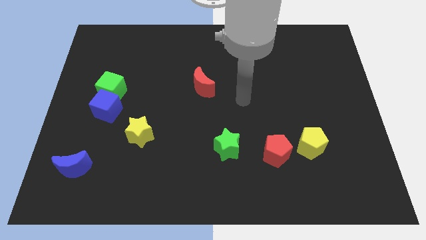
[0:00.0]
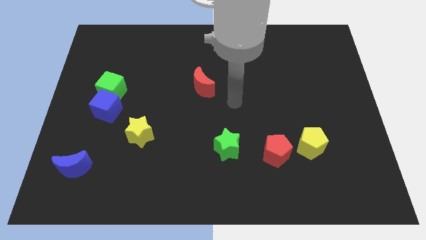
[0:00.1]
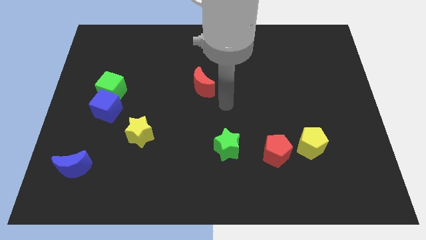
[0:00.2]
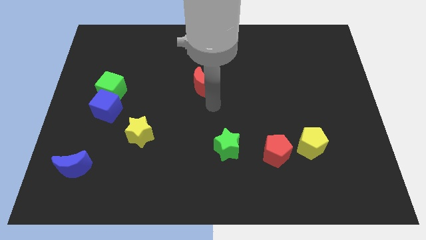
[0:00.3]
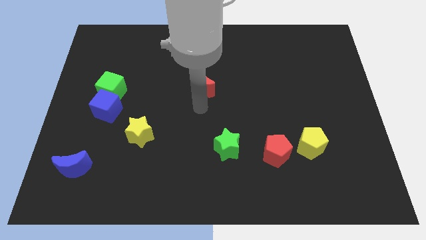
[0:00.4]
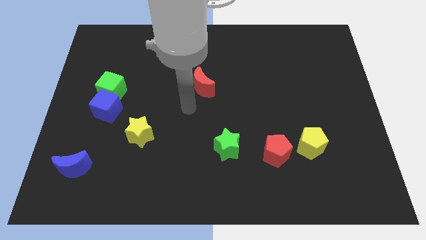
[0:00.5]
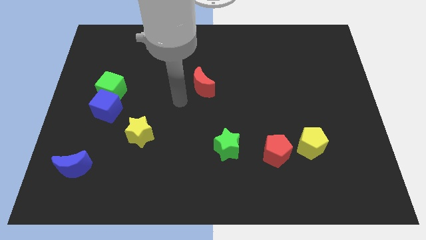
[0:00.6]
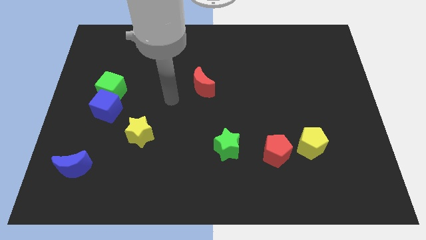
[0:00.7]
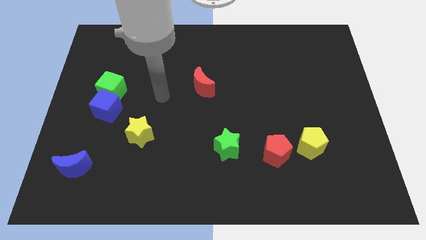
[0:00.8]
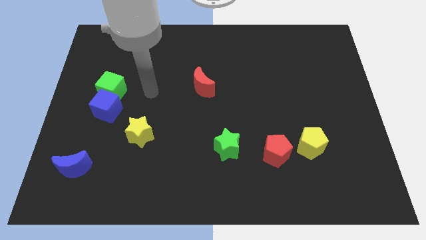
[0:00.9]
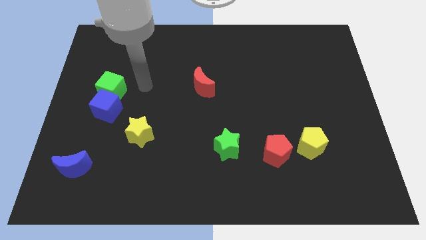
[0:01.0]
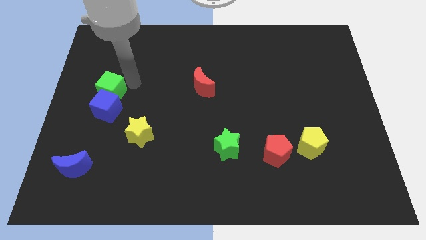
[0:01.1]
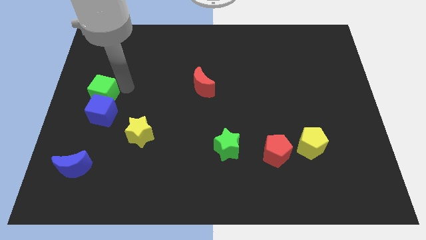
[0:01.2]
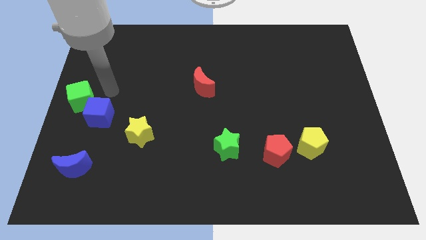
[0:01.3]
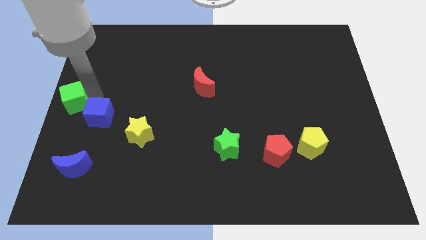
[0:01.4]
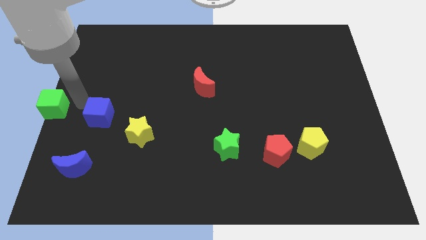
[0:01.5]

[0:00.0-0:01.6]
separate the blue cube from the green cube

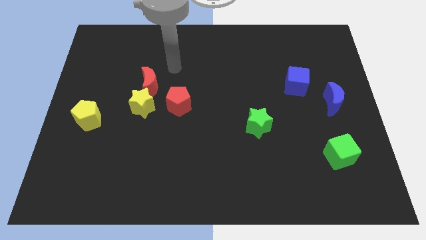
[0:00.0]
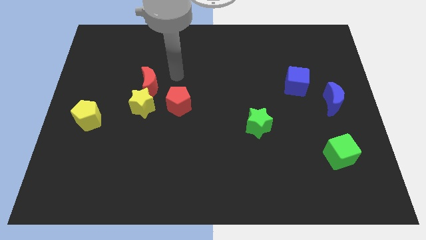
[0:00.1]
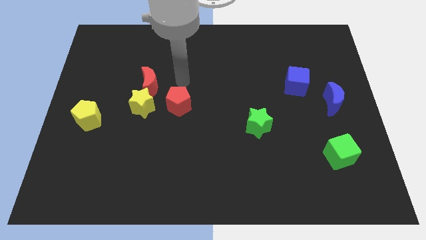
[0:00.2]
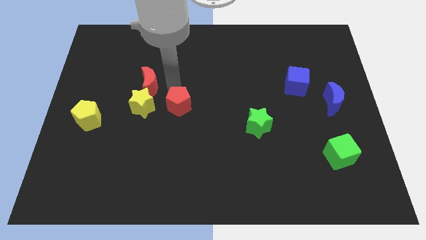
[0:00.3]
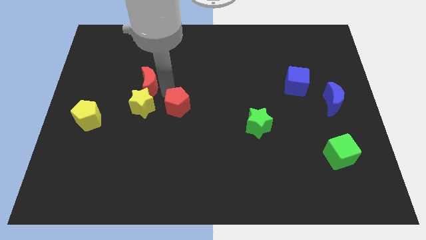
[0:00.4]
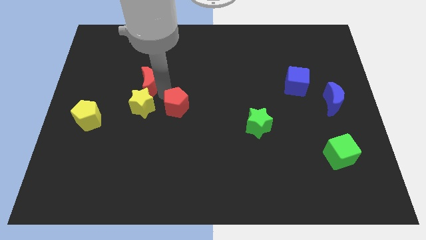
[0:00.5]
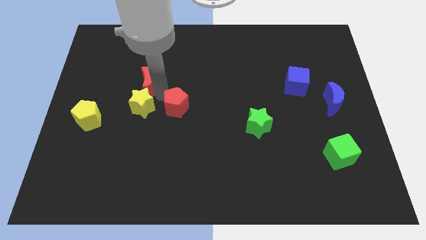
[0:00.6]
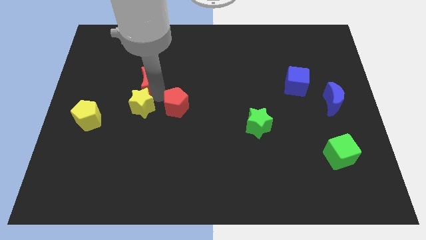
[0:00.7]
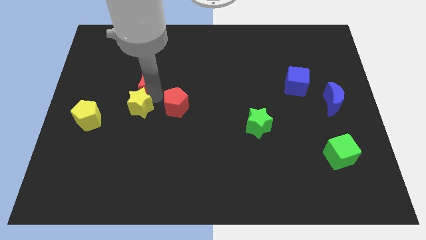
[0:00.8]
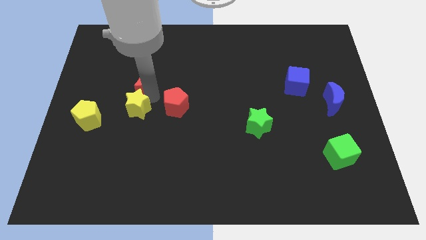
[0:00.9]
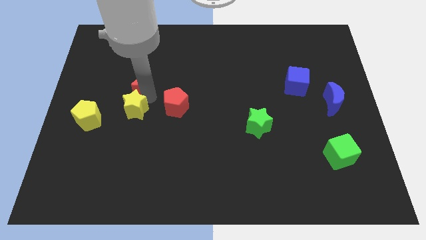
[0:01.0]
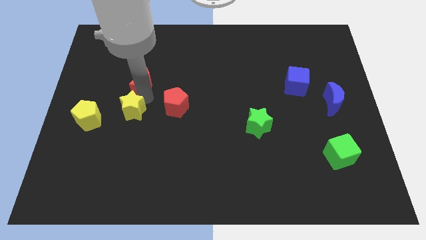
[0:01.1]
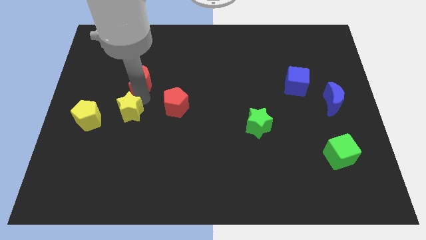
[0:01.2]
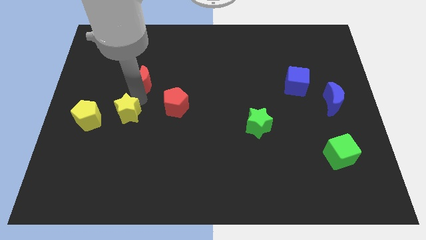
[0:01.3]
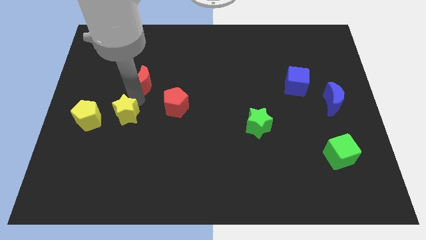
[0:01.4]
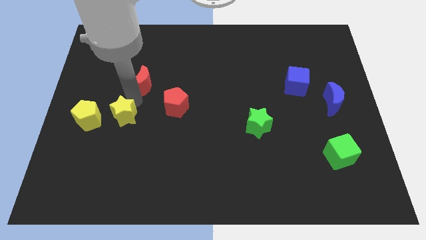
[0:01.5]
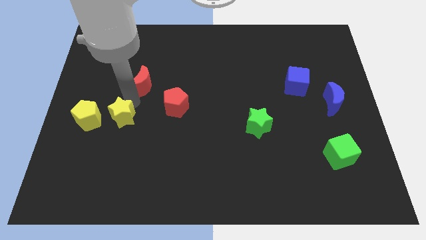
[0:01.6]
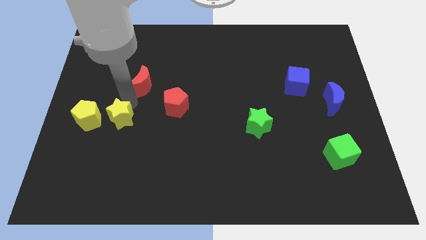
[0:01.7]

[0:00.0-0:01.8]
move the yellow star away from the red moon and red pentagon

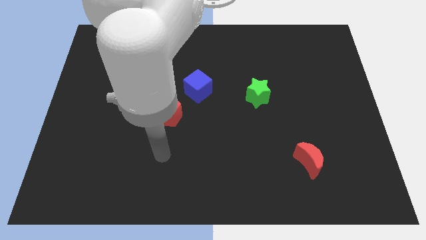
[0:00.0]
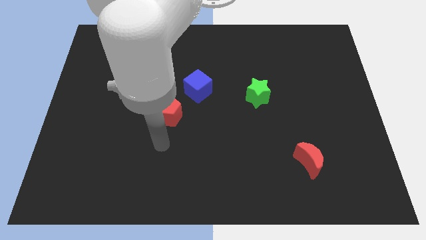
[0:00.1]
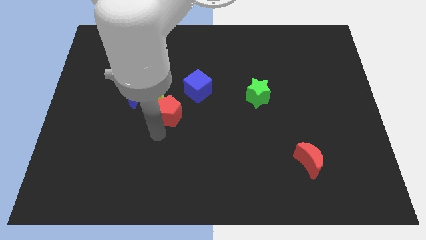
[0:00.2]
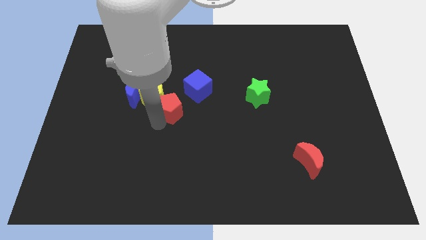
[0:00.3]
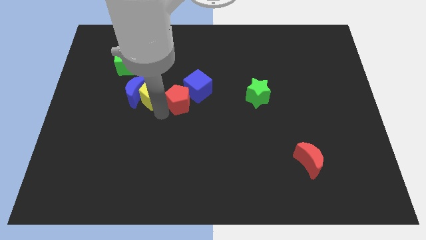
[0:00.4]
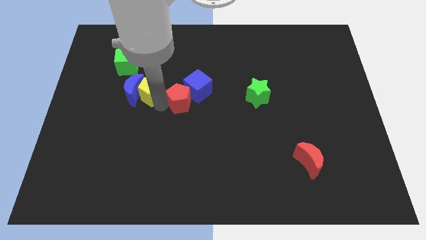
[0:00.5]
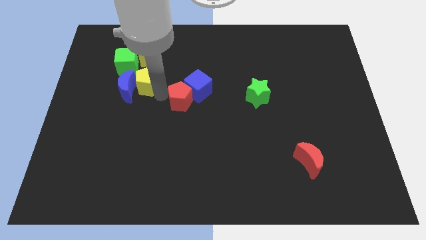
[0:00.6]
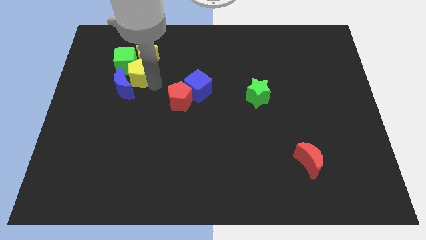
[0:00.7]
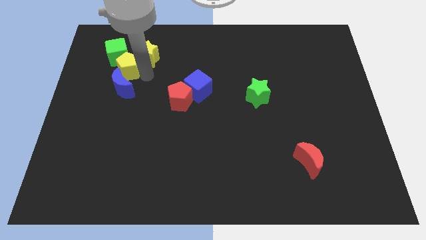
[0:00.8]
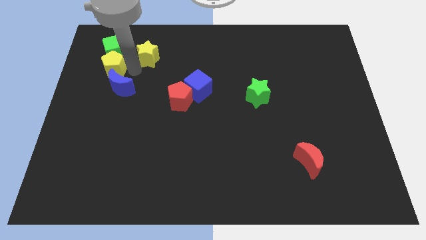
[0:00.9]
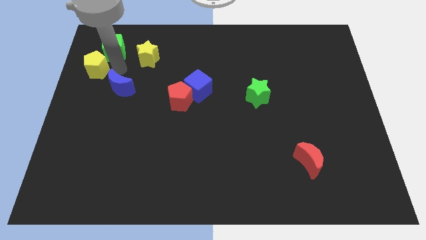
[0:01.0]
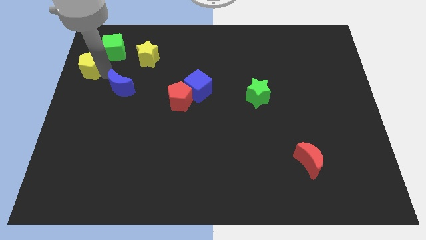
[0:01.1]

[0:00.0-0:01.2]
move the blue moon away from the yellow pentagon

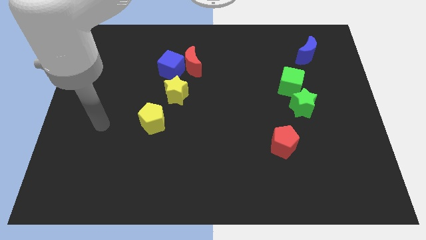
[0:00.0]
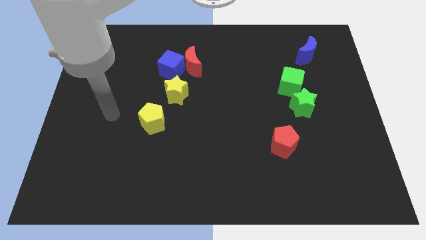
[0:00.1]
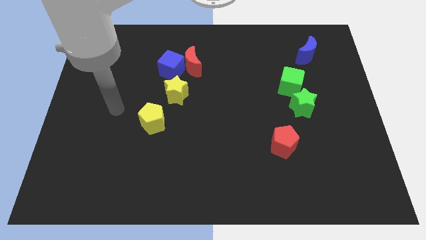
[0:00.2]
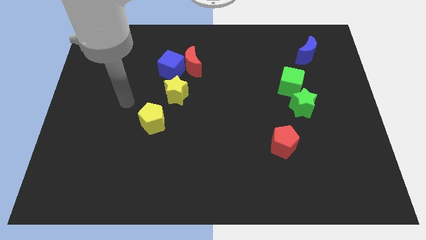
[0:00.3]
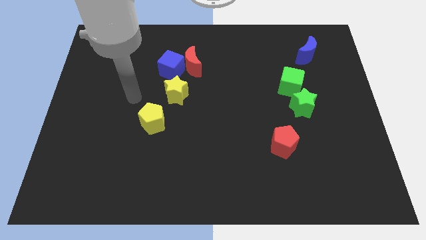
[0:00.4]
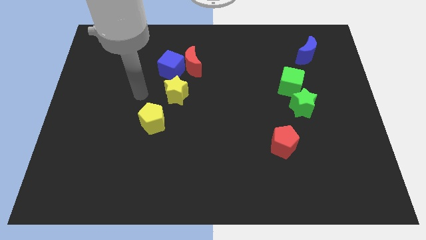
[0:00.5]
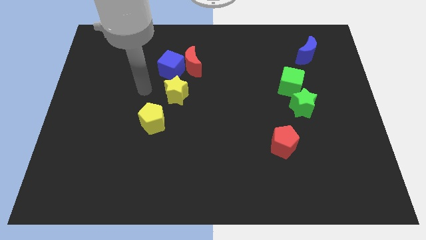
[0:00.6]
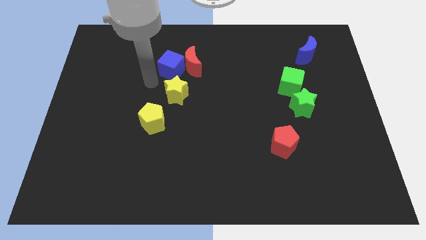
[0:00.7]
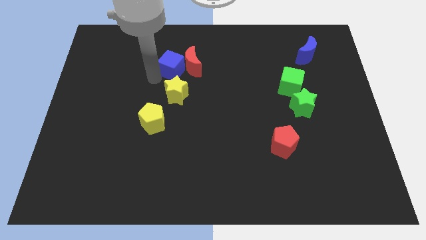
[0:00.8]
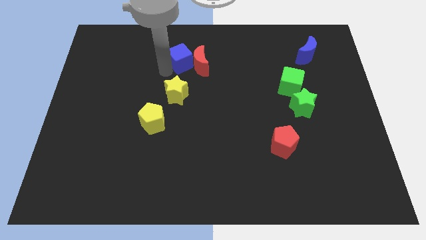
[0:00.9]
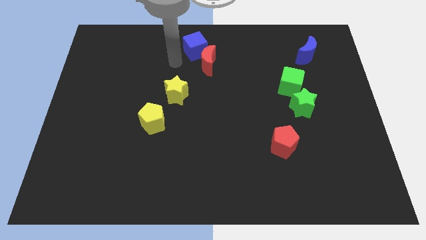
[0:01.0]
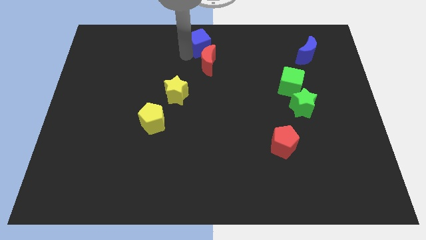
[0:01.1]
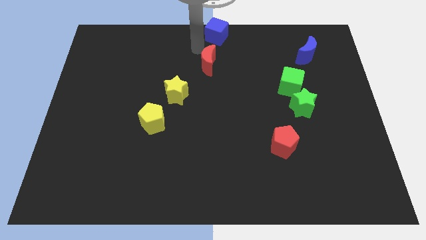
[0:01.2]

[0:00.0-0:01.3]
separate the red moon from the blue cube

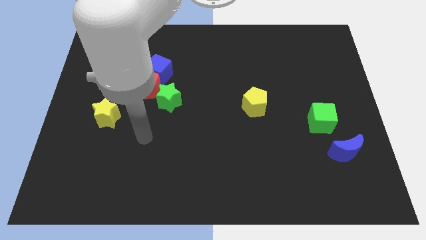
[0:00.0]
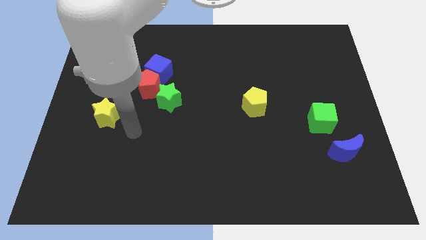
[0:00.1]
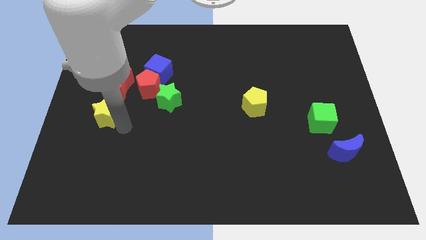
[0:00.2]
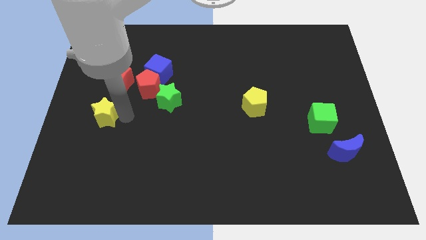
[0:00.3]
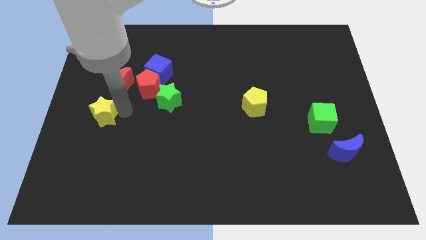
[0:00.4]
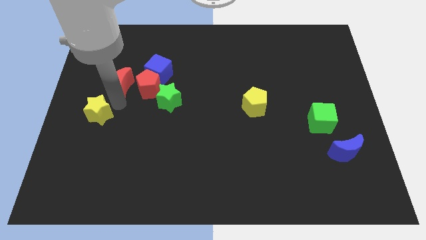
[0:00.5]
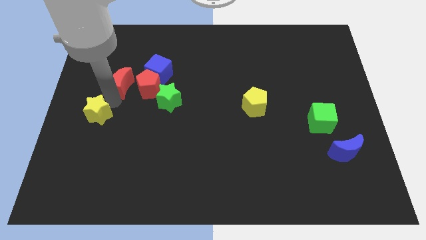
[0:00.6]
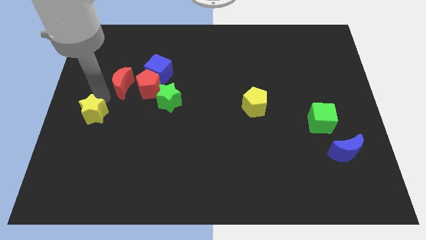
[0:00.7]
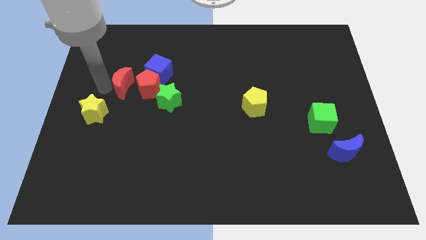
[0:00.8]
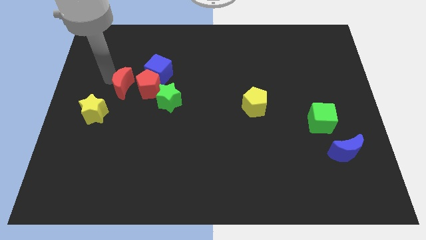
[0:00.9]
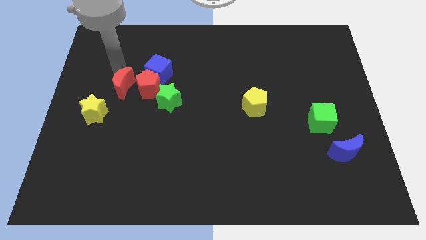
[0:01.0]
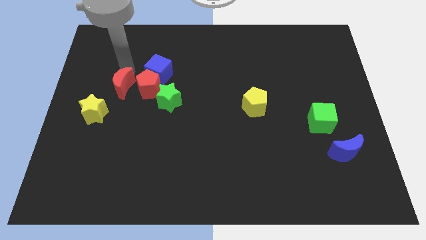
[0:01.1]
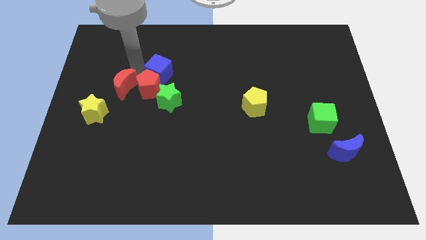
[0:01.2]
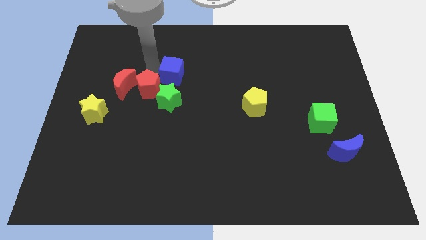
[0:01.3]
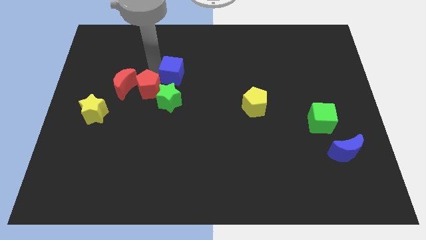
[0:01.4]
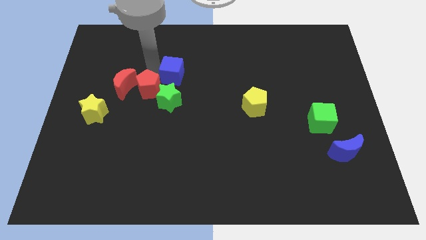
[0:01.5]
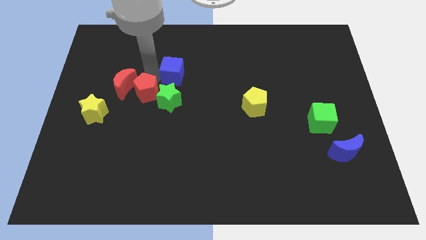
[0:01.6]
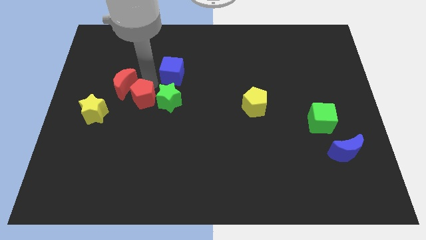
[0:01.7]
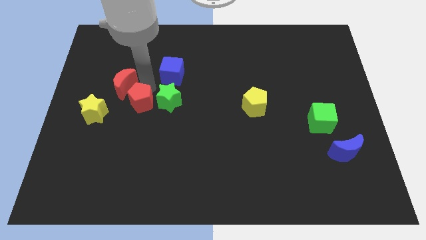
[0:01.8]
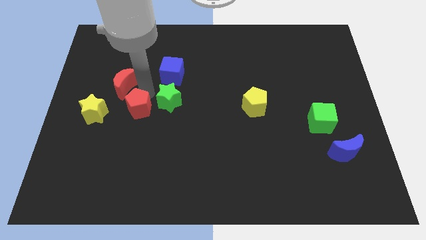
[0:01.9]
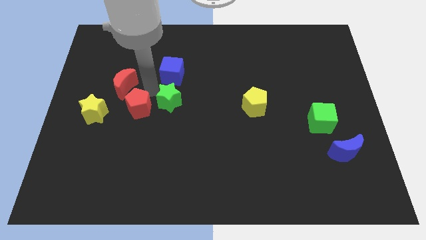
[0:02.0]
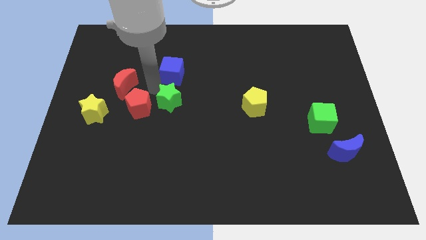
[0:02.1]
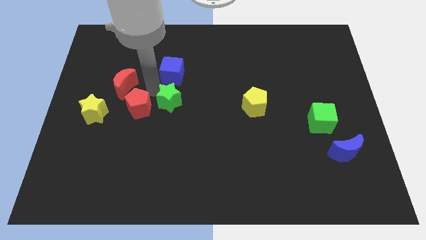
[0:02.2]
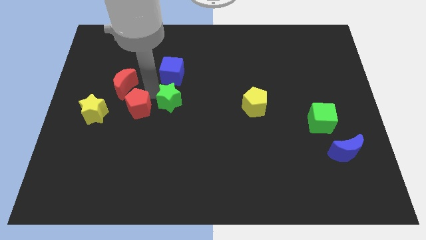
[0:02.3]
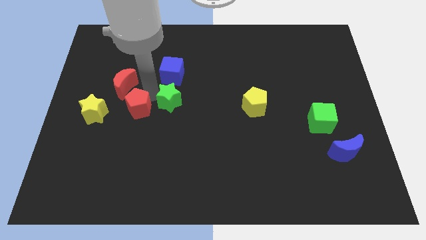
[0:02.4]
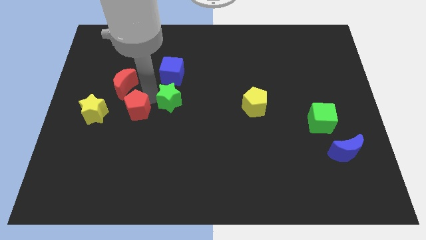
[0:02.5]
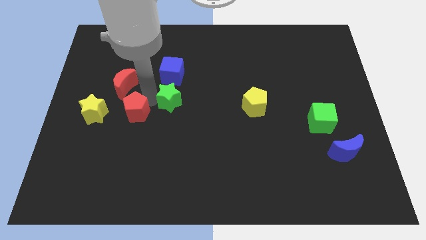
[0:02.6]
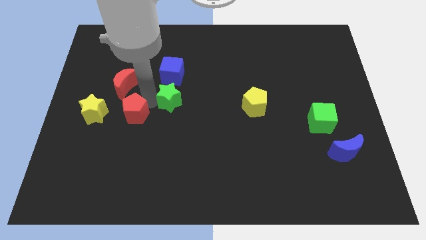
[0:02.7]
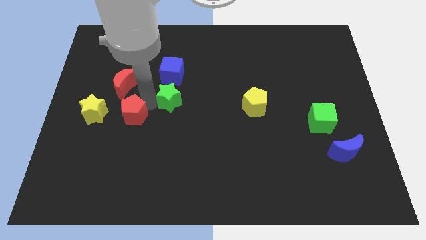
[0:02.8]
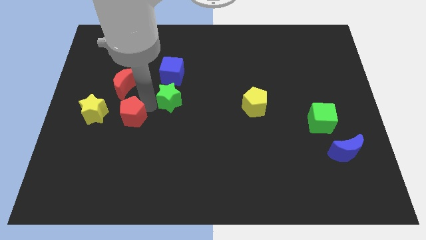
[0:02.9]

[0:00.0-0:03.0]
separate the red pentagon from the group of blocks

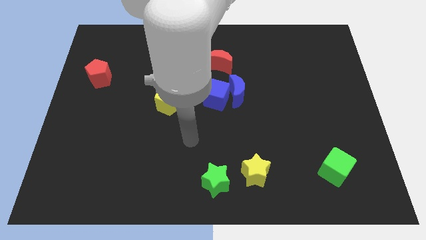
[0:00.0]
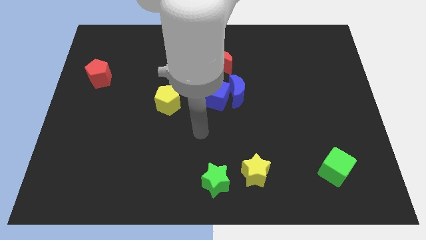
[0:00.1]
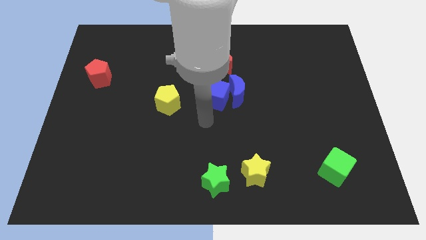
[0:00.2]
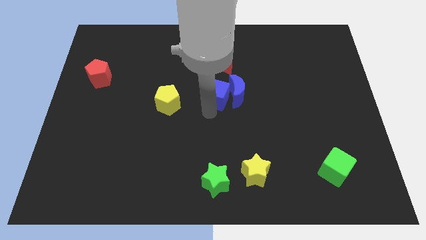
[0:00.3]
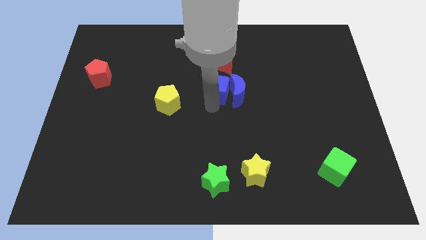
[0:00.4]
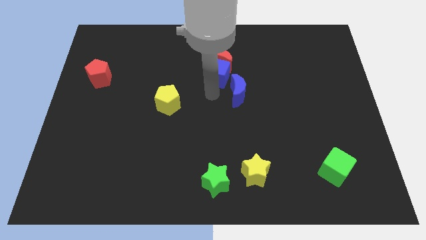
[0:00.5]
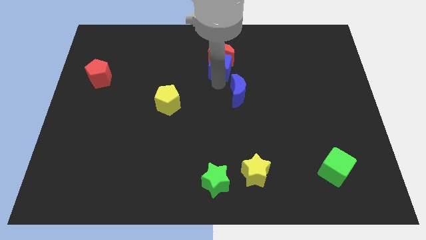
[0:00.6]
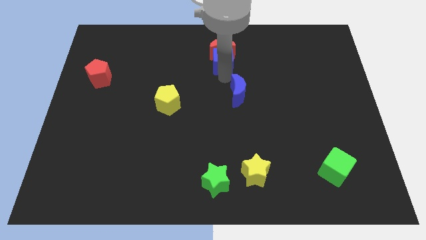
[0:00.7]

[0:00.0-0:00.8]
pull the blue moon apart from the blue cube
